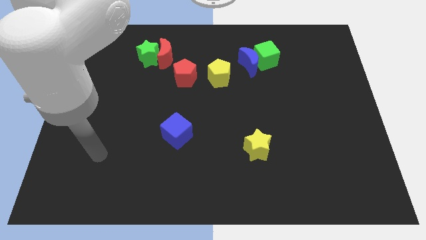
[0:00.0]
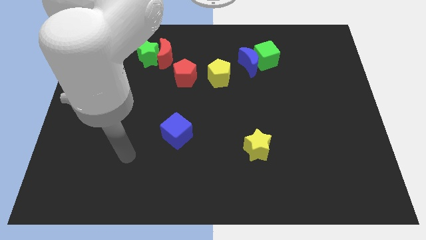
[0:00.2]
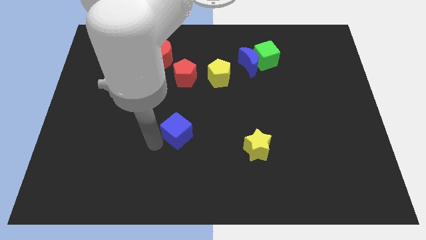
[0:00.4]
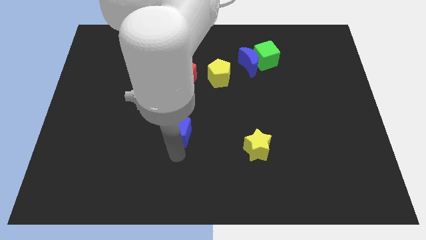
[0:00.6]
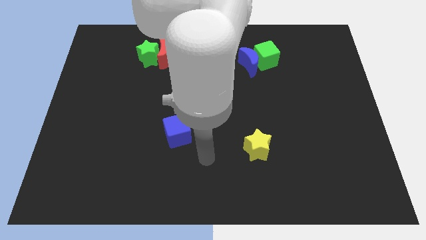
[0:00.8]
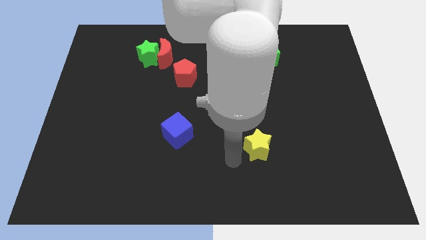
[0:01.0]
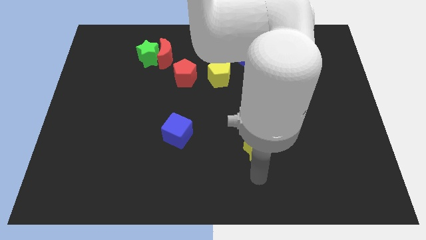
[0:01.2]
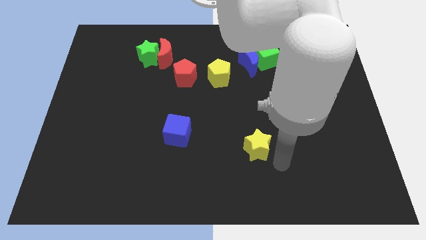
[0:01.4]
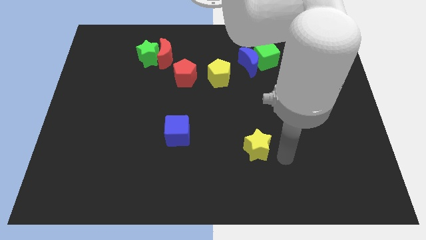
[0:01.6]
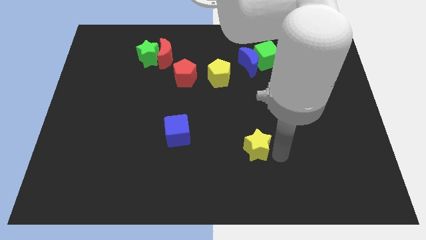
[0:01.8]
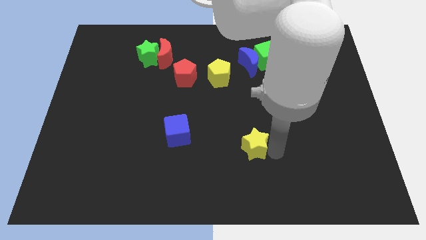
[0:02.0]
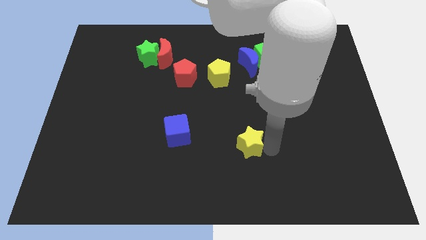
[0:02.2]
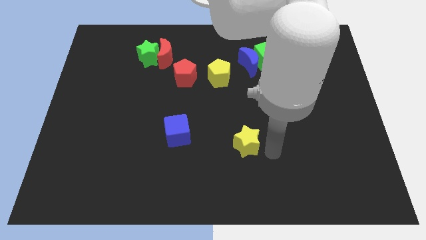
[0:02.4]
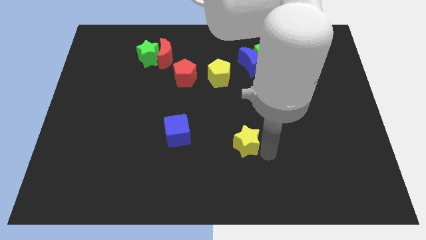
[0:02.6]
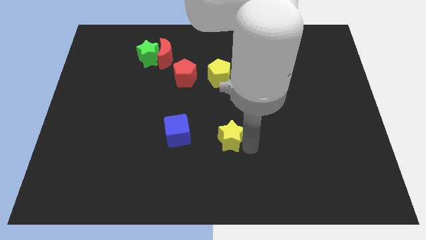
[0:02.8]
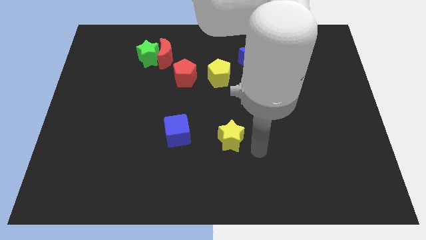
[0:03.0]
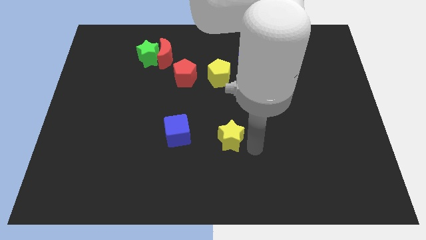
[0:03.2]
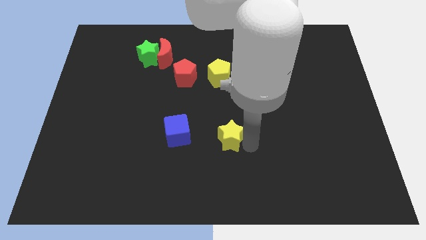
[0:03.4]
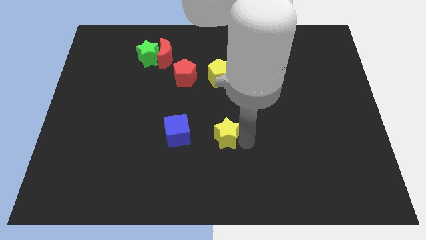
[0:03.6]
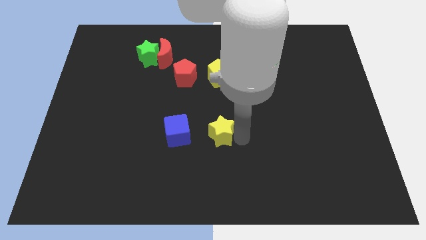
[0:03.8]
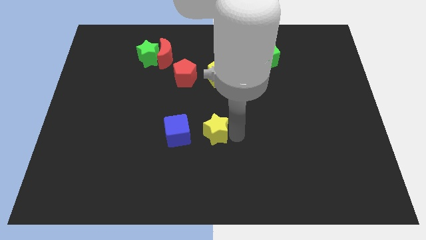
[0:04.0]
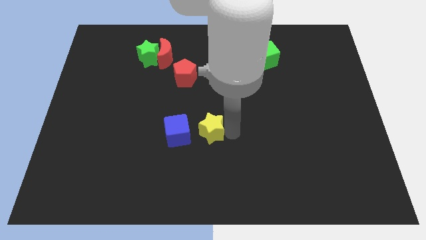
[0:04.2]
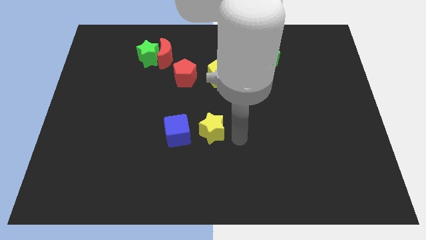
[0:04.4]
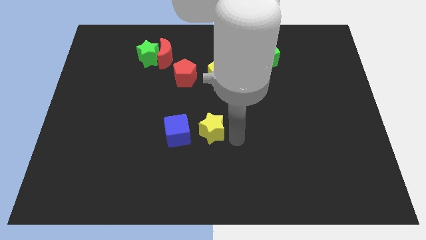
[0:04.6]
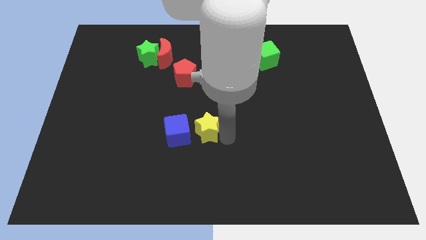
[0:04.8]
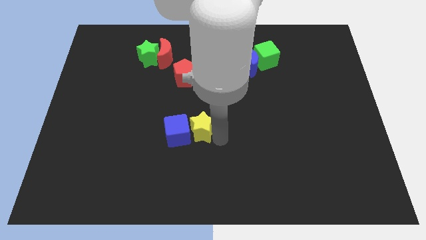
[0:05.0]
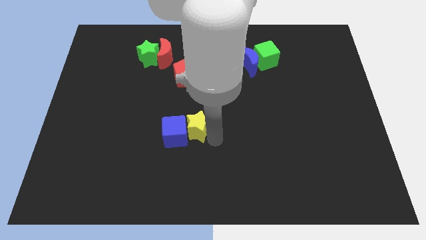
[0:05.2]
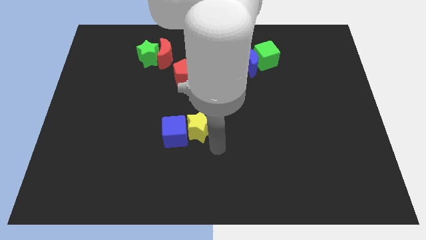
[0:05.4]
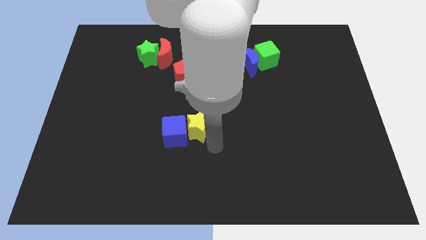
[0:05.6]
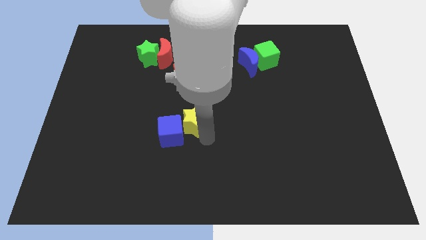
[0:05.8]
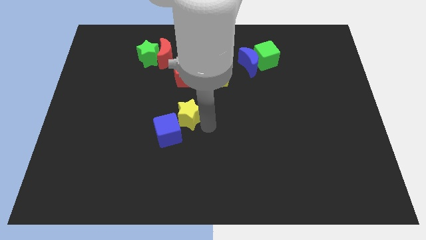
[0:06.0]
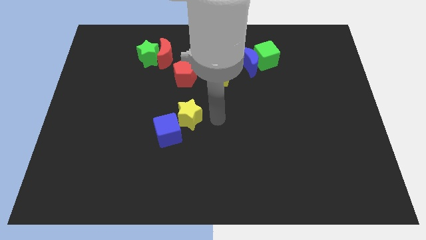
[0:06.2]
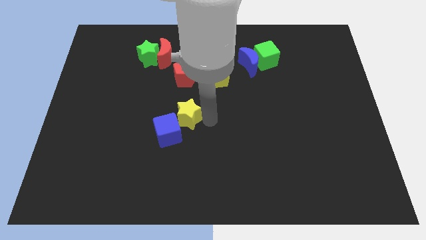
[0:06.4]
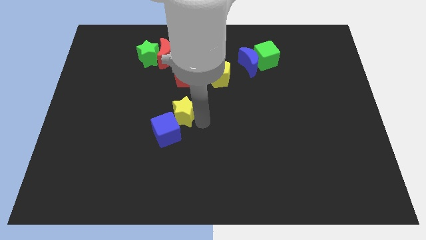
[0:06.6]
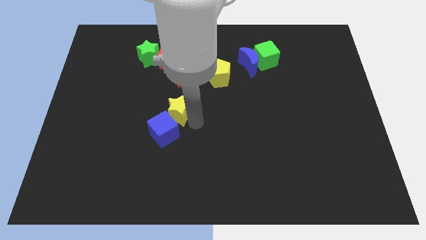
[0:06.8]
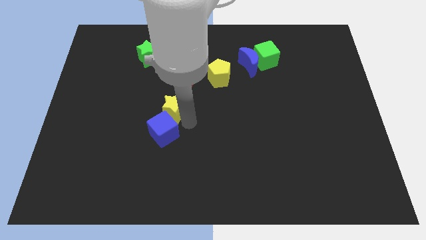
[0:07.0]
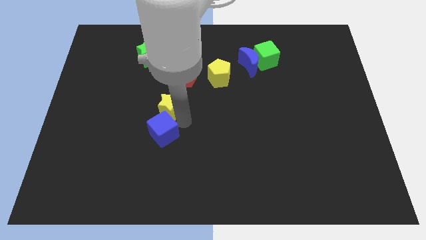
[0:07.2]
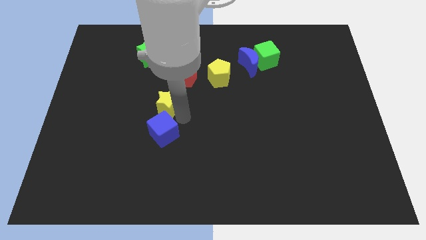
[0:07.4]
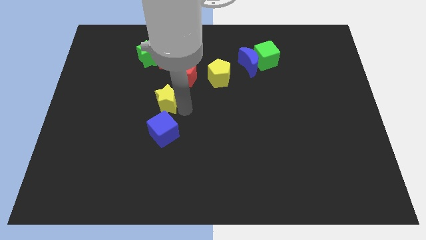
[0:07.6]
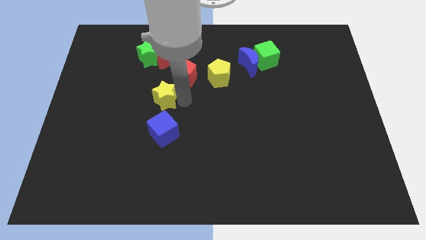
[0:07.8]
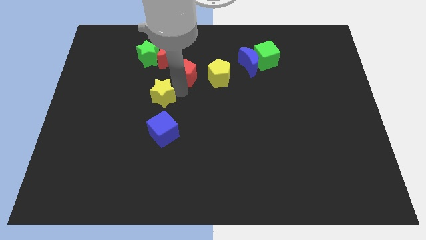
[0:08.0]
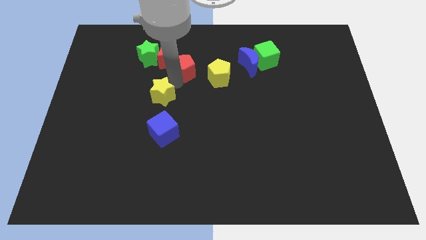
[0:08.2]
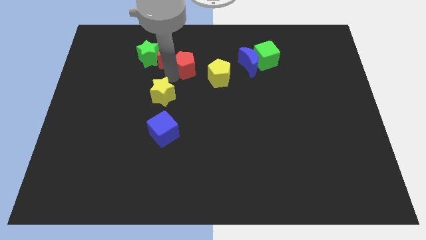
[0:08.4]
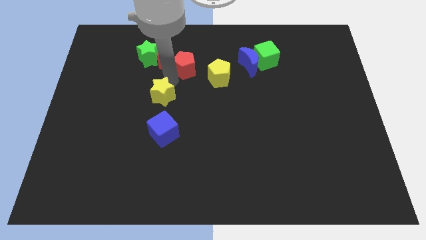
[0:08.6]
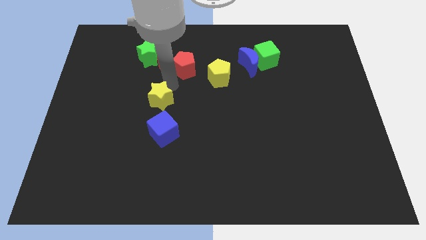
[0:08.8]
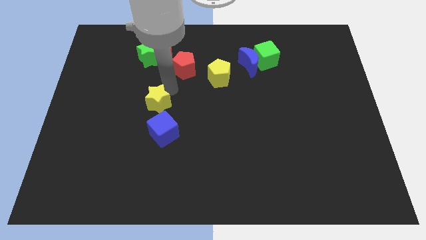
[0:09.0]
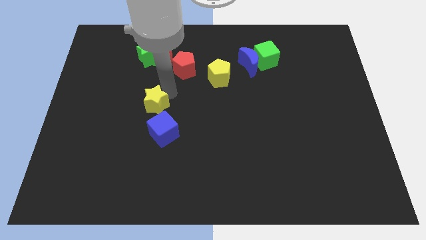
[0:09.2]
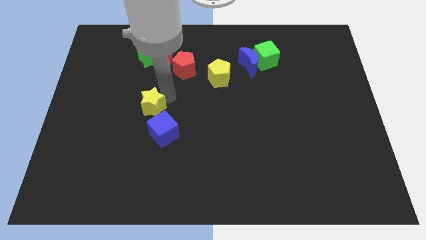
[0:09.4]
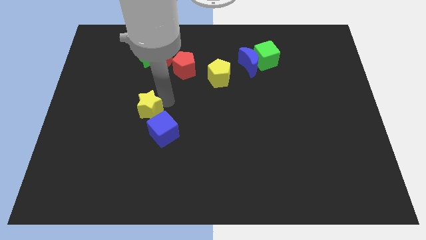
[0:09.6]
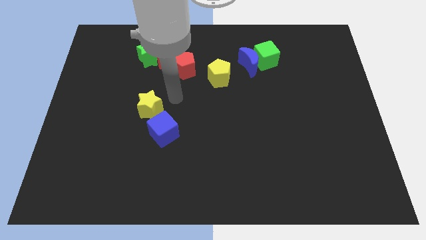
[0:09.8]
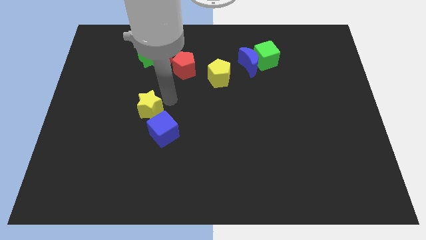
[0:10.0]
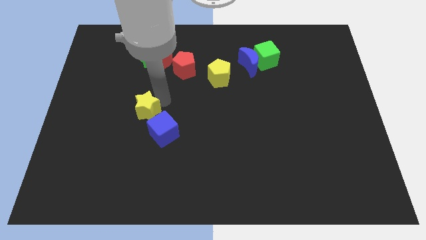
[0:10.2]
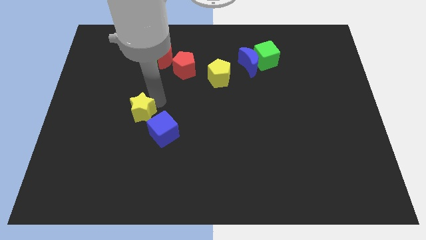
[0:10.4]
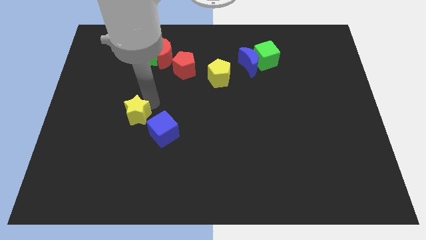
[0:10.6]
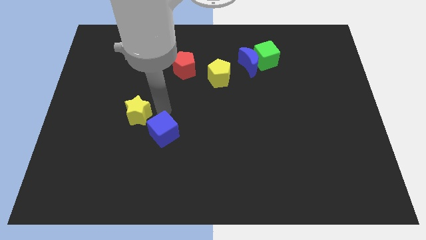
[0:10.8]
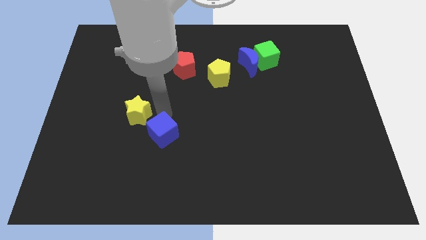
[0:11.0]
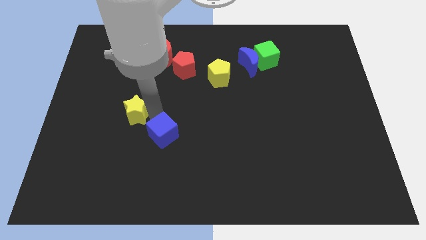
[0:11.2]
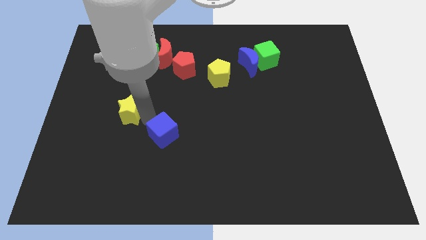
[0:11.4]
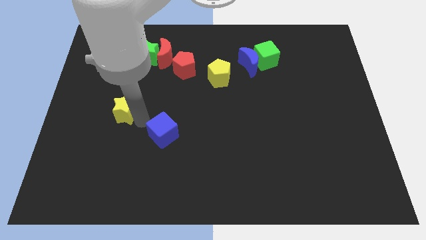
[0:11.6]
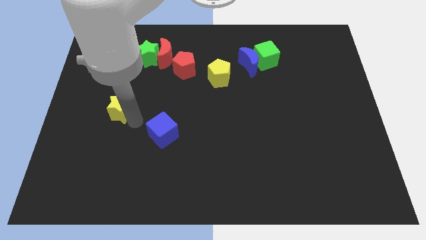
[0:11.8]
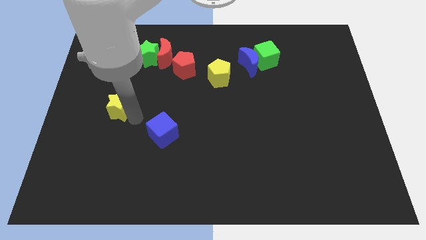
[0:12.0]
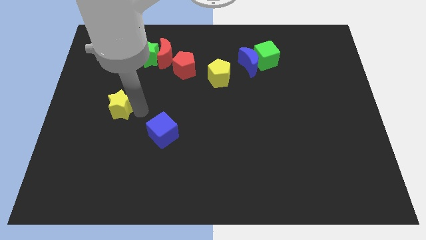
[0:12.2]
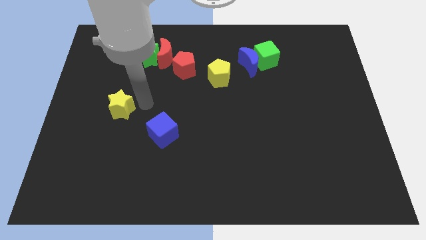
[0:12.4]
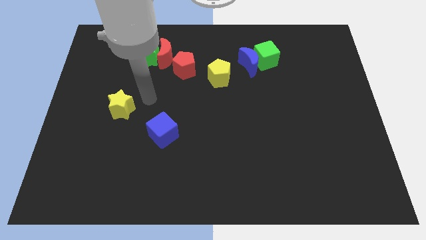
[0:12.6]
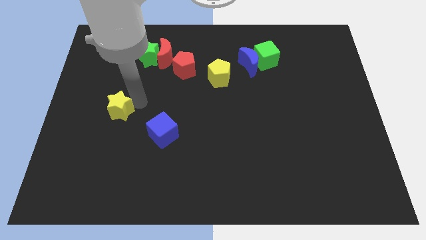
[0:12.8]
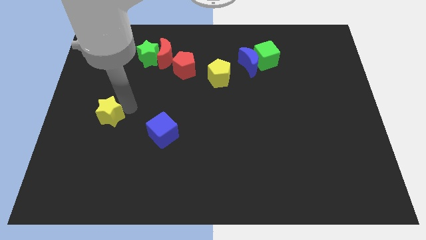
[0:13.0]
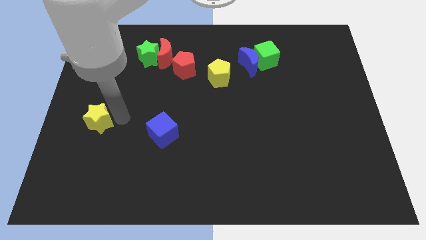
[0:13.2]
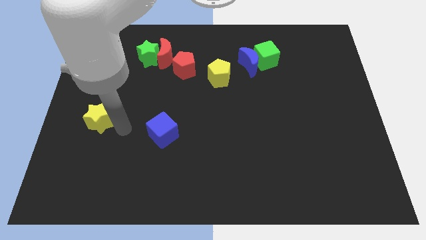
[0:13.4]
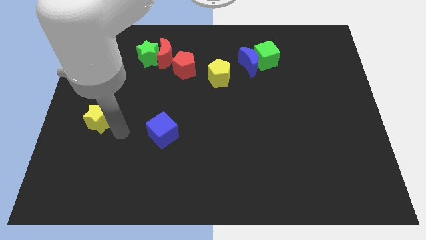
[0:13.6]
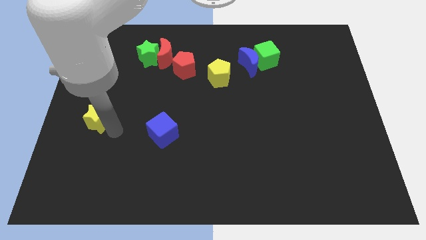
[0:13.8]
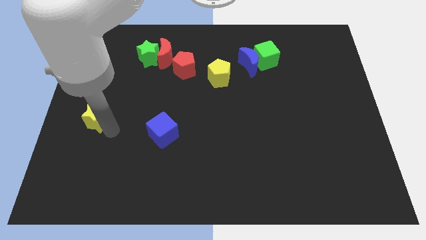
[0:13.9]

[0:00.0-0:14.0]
push the yellow star to the left side of the board
